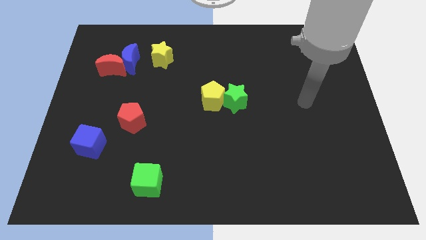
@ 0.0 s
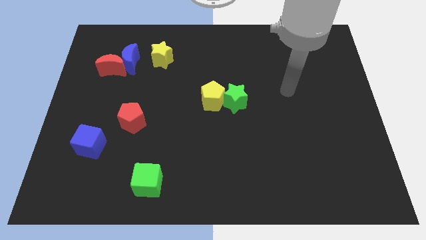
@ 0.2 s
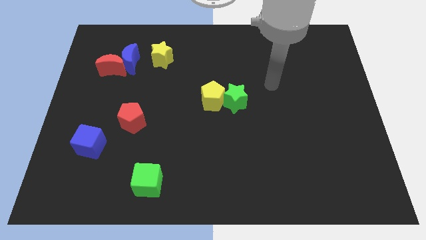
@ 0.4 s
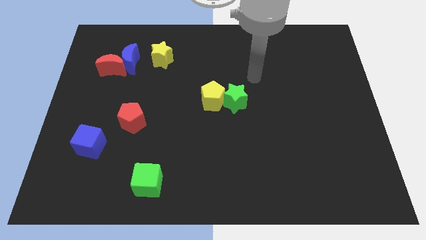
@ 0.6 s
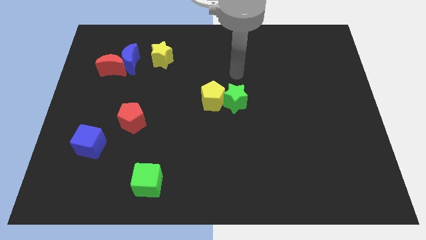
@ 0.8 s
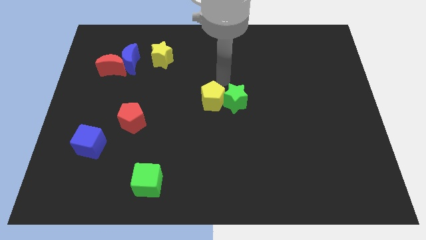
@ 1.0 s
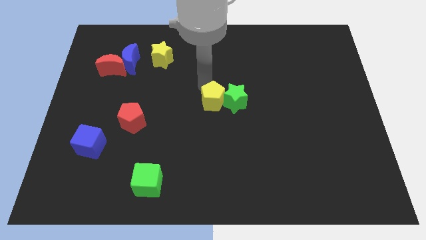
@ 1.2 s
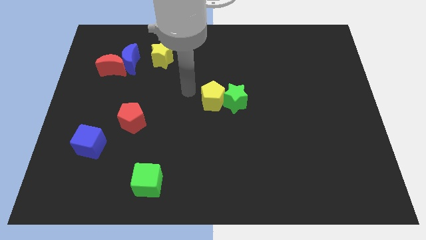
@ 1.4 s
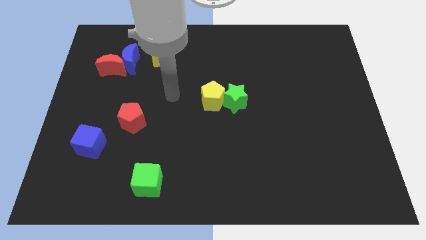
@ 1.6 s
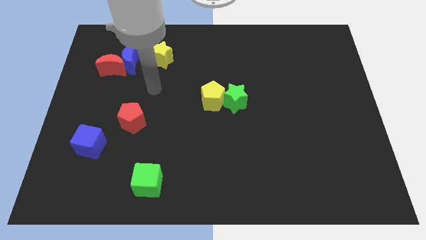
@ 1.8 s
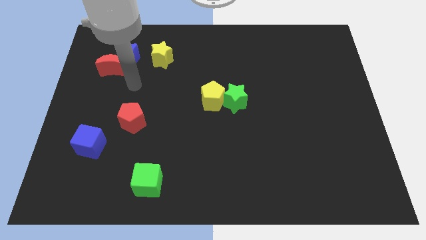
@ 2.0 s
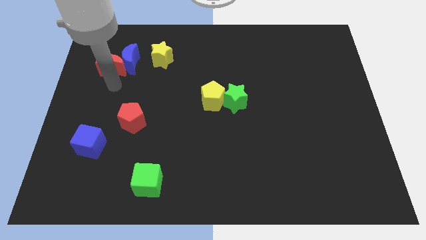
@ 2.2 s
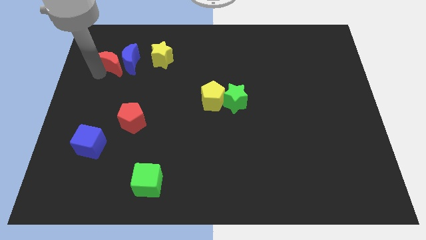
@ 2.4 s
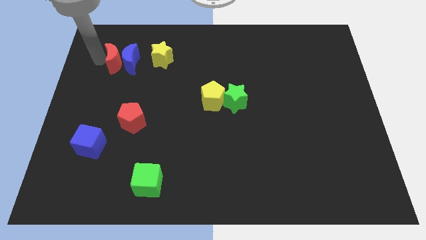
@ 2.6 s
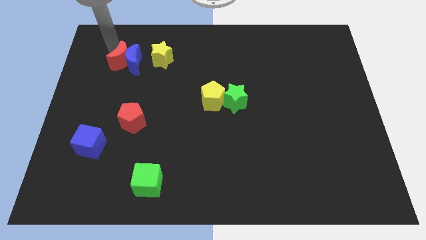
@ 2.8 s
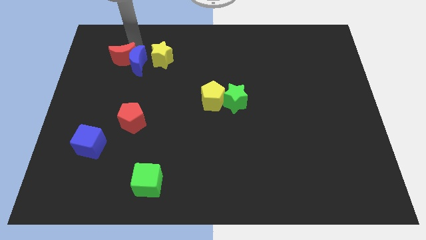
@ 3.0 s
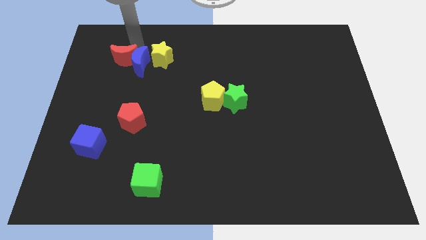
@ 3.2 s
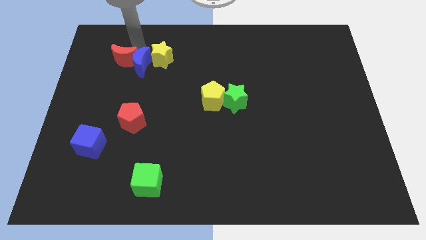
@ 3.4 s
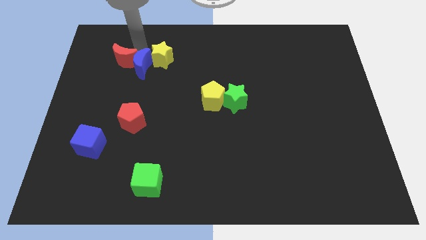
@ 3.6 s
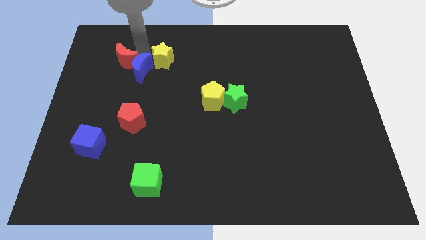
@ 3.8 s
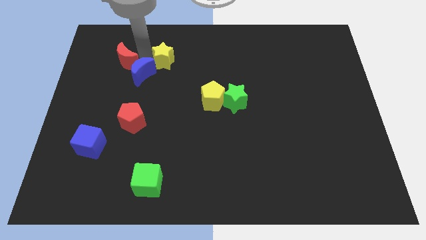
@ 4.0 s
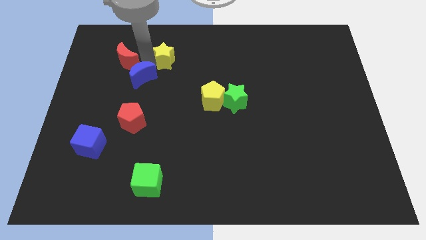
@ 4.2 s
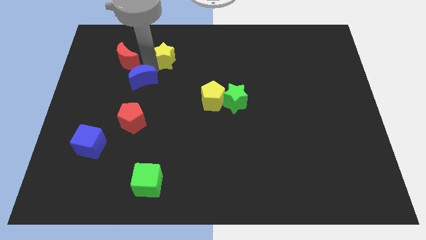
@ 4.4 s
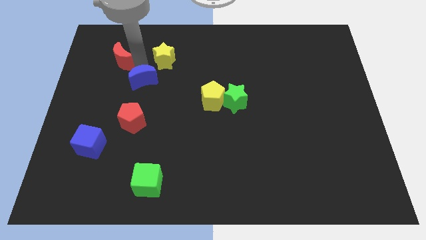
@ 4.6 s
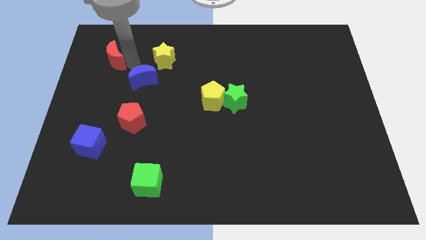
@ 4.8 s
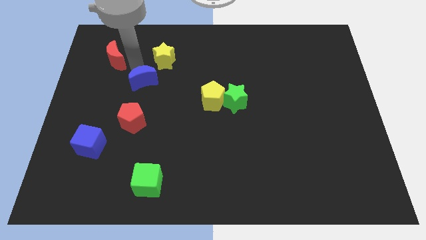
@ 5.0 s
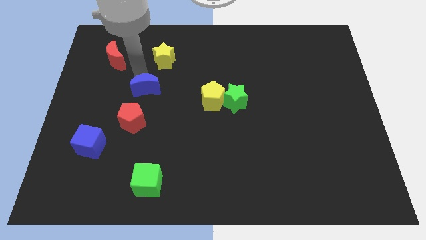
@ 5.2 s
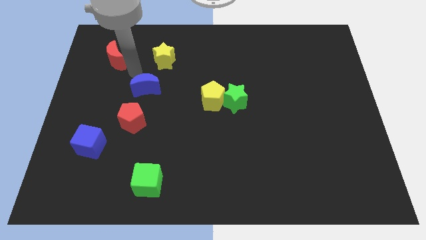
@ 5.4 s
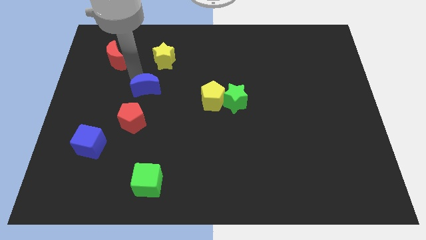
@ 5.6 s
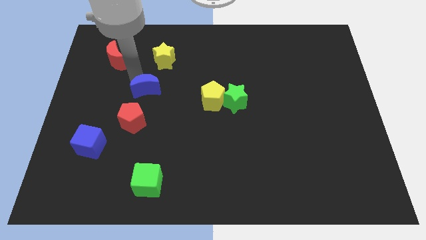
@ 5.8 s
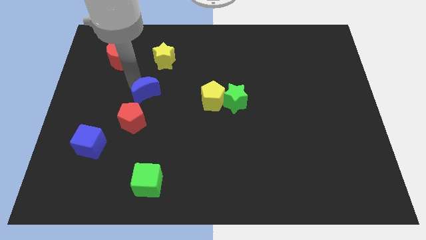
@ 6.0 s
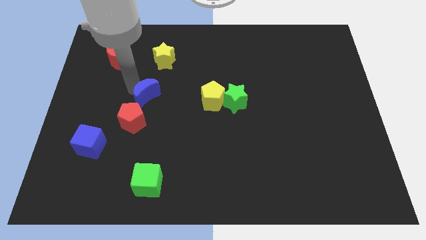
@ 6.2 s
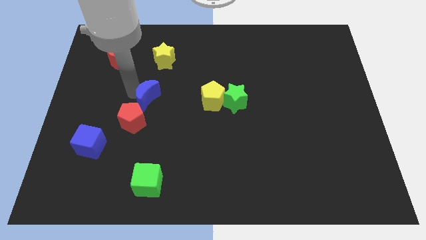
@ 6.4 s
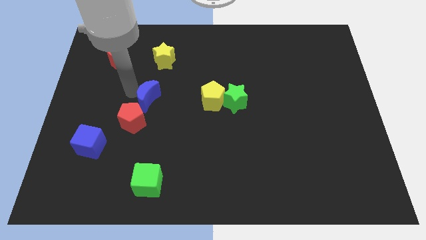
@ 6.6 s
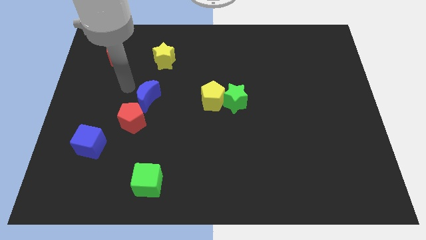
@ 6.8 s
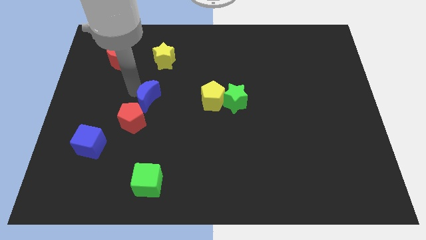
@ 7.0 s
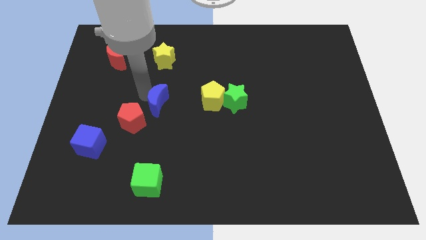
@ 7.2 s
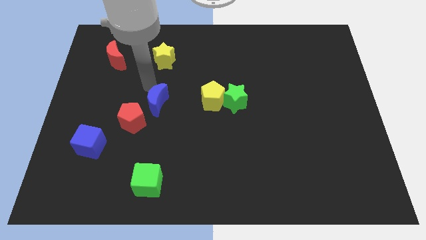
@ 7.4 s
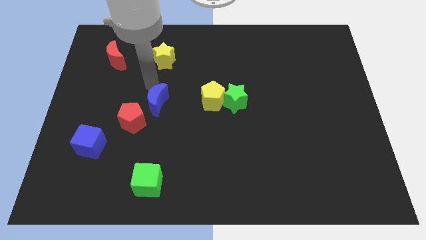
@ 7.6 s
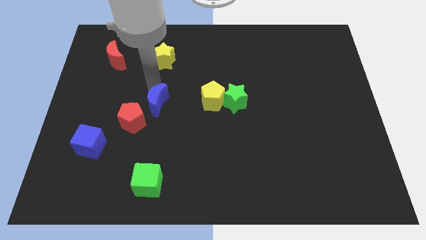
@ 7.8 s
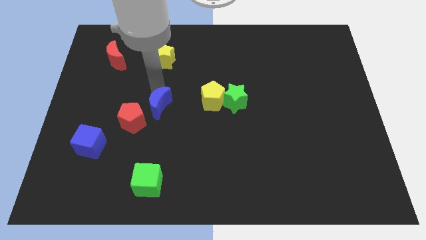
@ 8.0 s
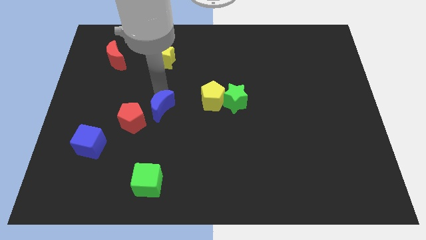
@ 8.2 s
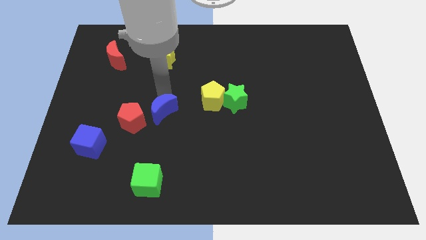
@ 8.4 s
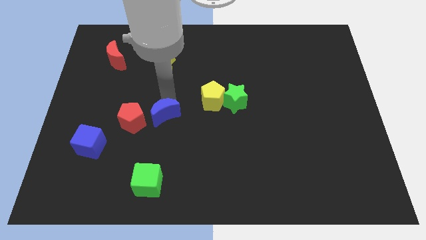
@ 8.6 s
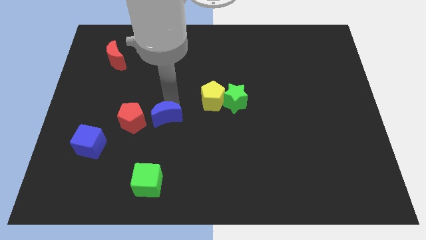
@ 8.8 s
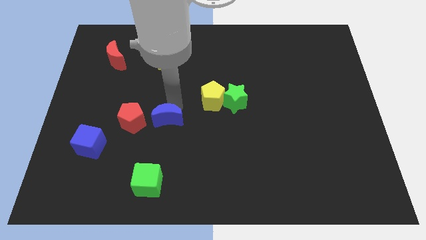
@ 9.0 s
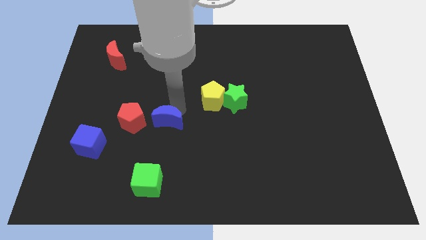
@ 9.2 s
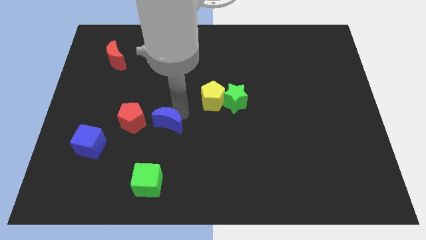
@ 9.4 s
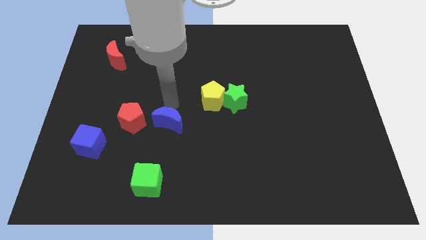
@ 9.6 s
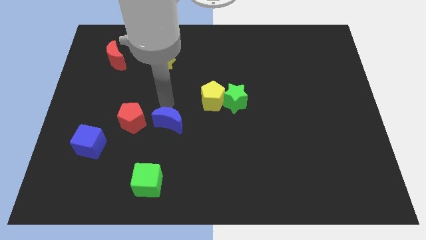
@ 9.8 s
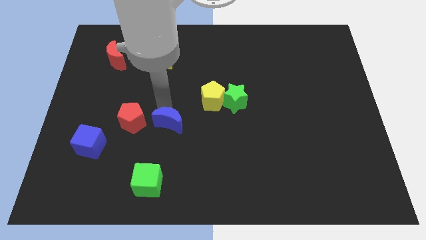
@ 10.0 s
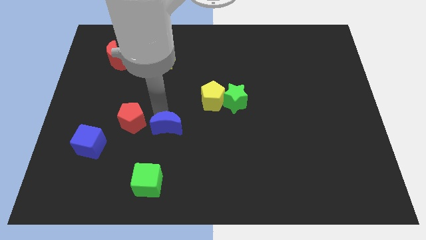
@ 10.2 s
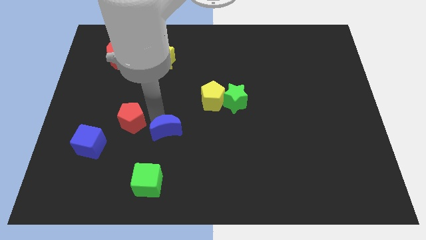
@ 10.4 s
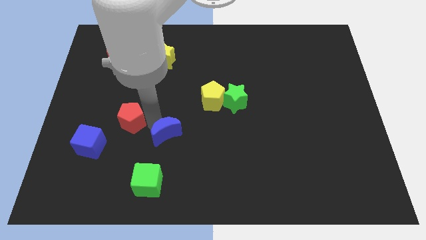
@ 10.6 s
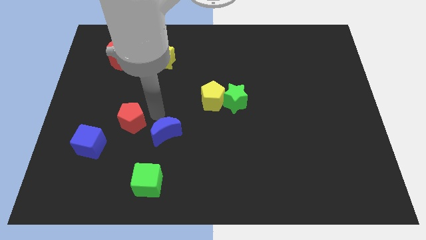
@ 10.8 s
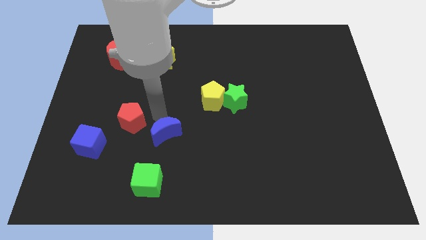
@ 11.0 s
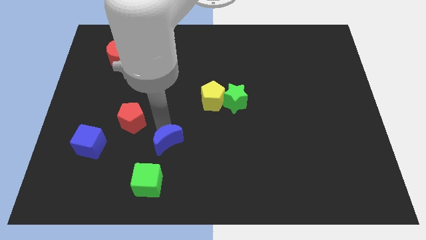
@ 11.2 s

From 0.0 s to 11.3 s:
slide the blue moon diagonally up and to the right of the green cube

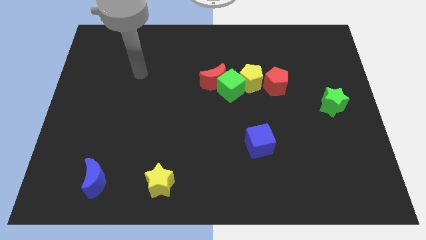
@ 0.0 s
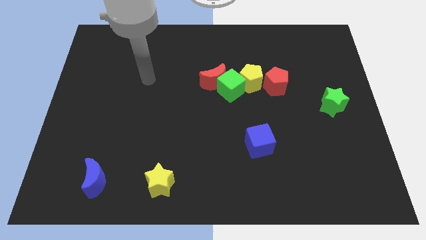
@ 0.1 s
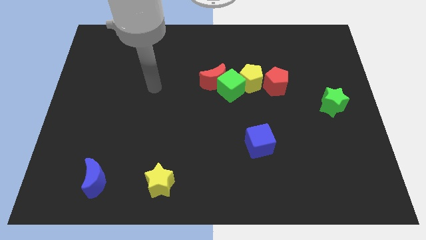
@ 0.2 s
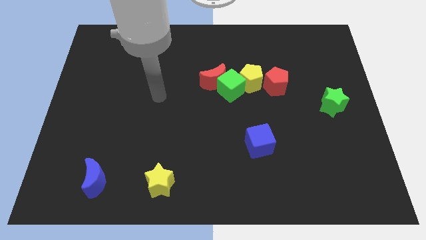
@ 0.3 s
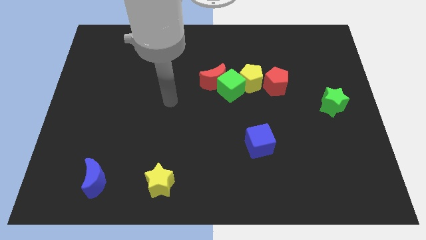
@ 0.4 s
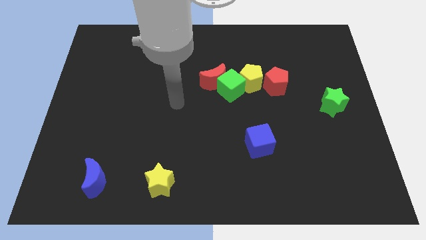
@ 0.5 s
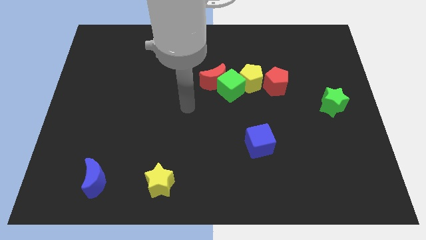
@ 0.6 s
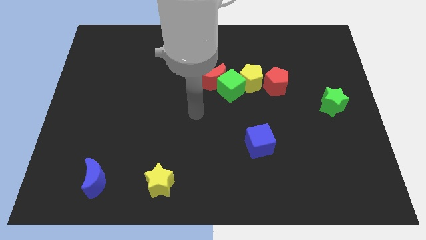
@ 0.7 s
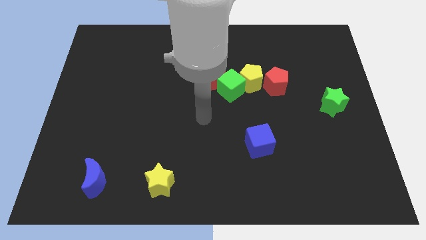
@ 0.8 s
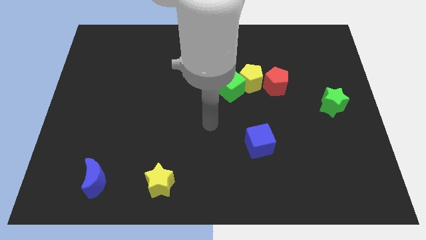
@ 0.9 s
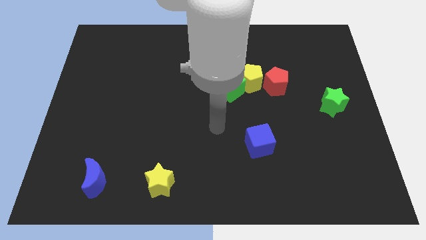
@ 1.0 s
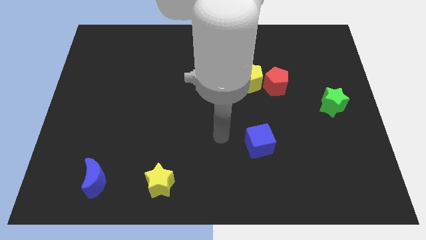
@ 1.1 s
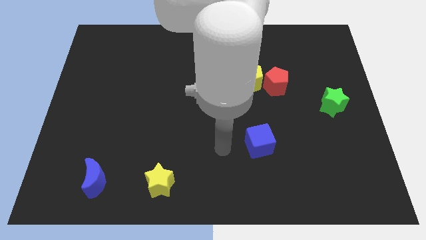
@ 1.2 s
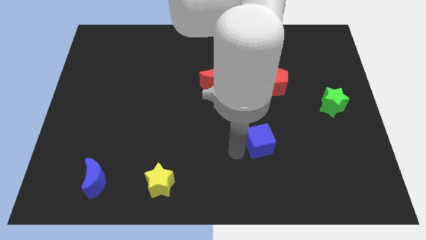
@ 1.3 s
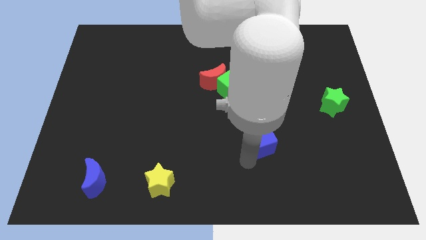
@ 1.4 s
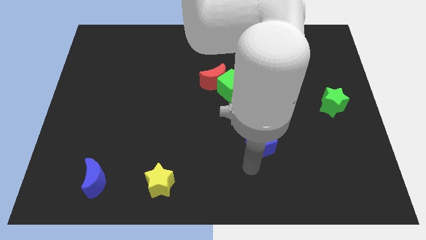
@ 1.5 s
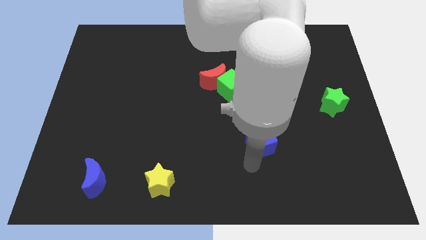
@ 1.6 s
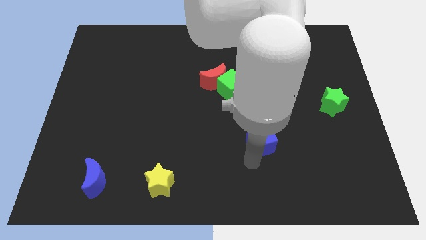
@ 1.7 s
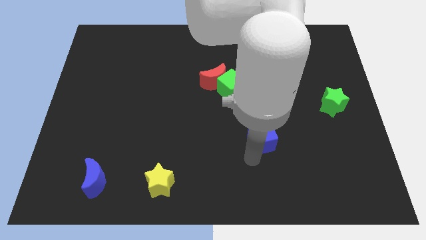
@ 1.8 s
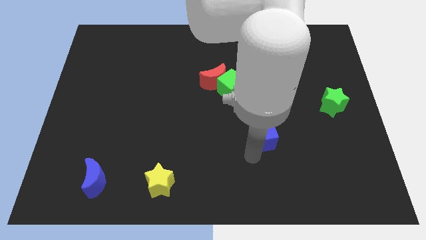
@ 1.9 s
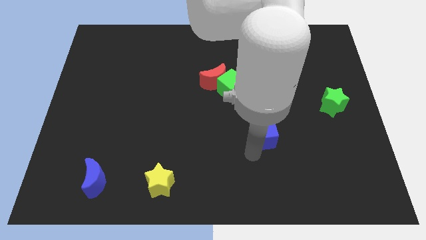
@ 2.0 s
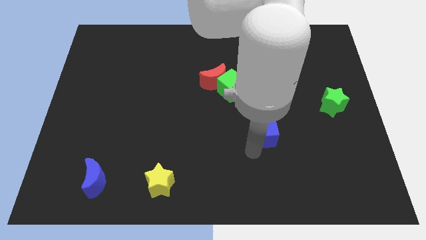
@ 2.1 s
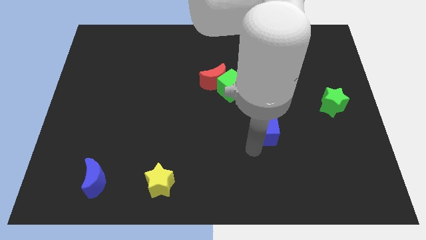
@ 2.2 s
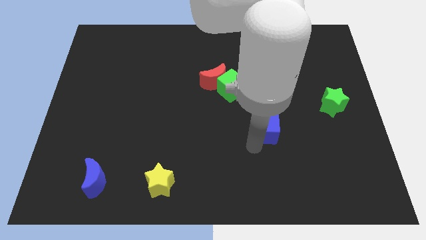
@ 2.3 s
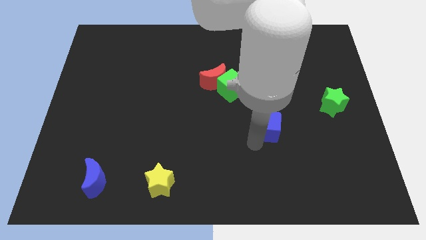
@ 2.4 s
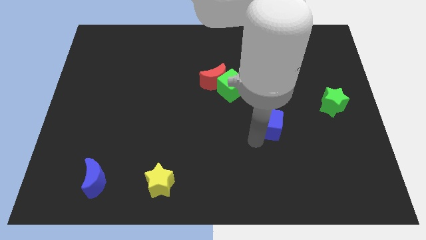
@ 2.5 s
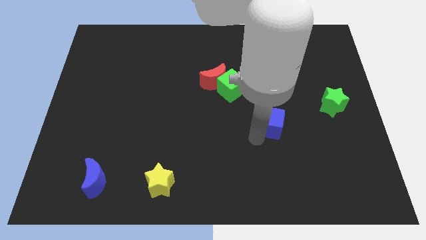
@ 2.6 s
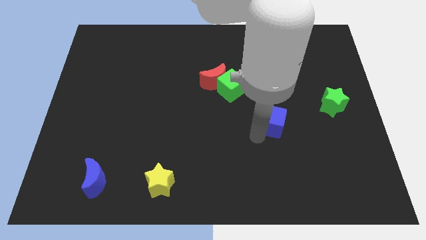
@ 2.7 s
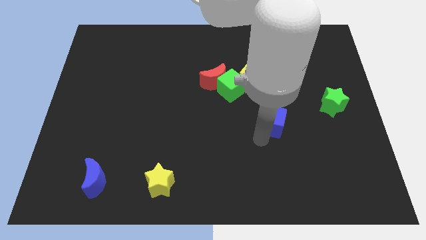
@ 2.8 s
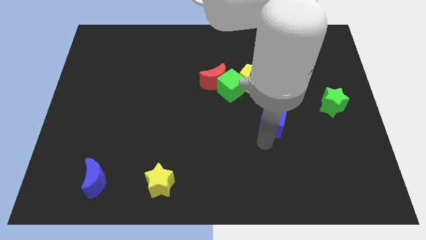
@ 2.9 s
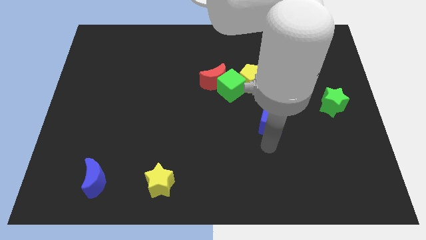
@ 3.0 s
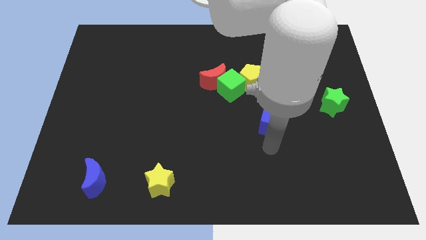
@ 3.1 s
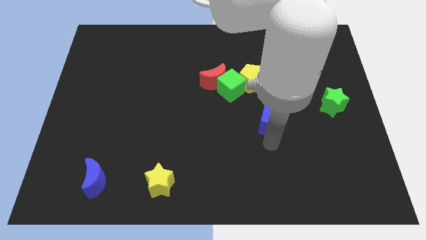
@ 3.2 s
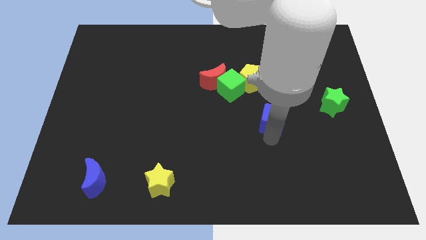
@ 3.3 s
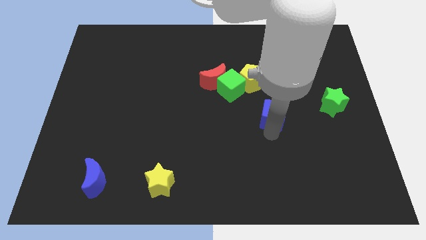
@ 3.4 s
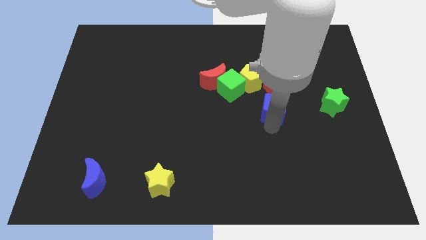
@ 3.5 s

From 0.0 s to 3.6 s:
put the blue cube to the bottom right side of the yellow pentagon
